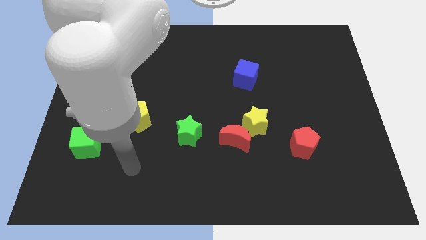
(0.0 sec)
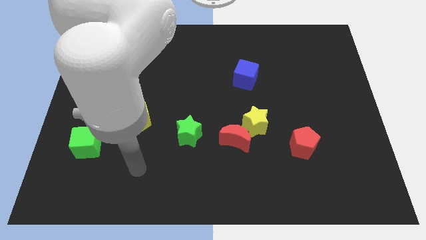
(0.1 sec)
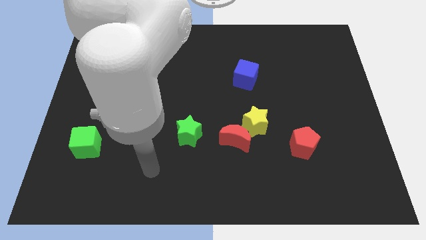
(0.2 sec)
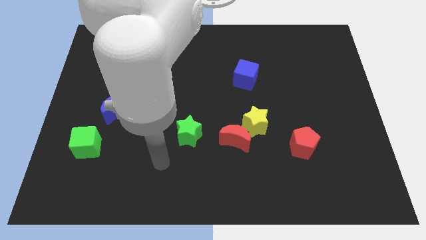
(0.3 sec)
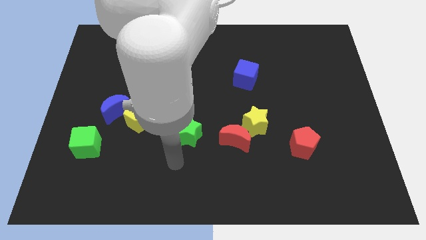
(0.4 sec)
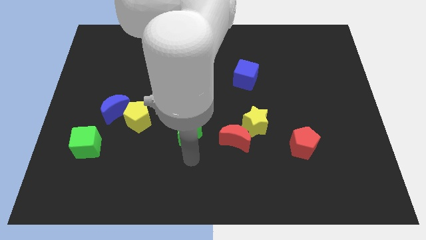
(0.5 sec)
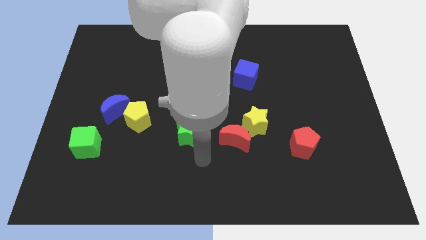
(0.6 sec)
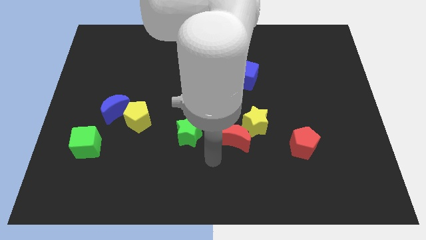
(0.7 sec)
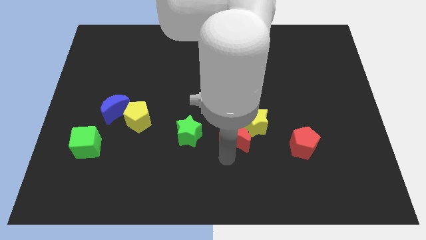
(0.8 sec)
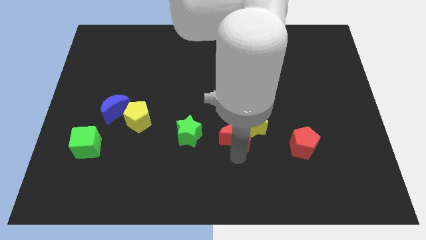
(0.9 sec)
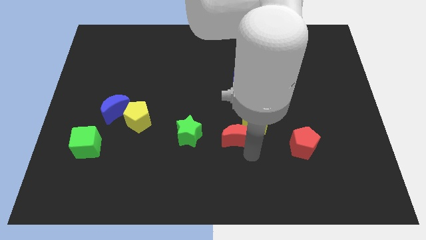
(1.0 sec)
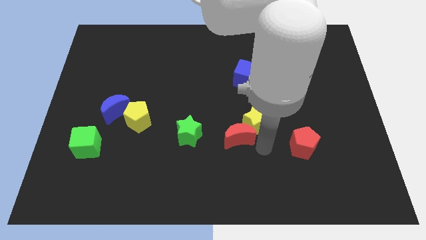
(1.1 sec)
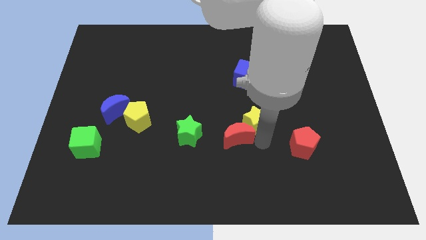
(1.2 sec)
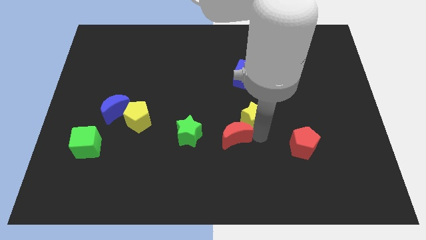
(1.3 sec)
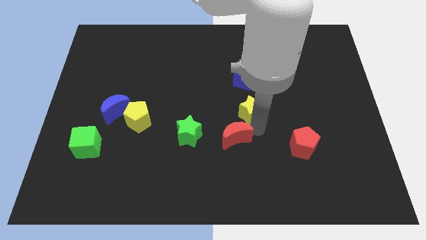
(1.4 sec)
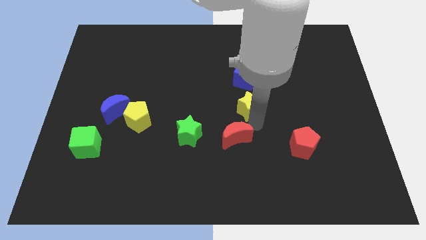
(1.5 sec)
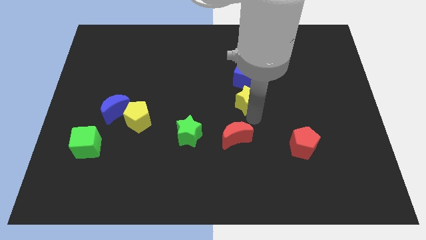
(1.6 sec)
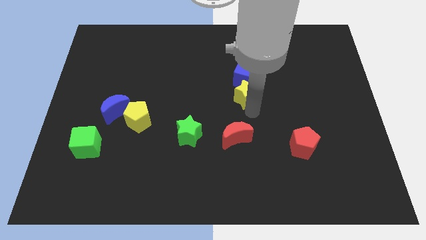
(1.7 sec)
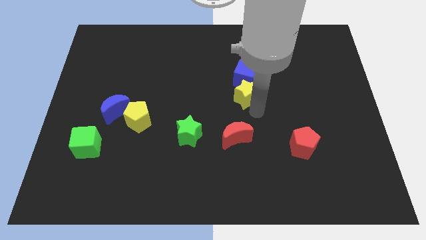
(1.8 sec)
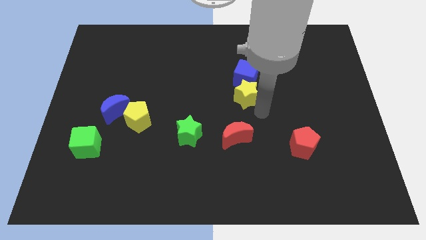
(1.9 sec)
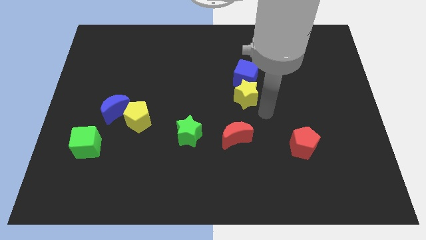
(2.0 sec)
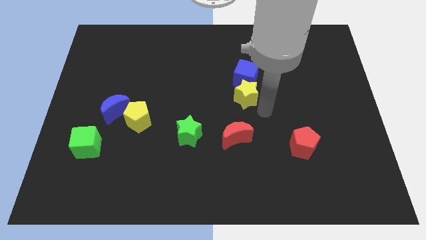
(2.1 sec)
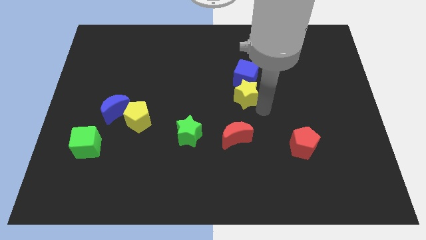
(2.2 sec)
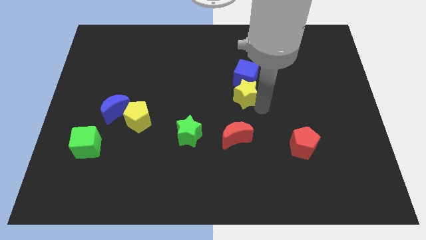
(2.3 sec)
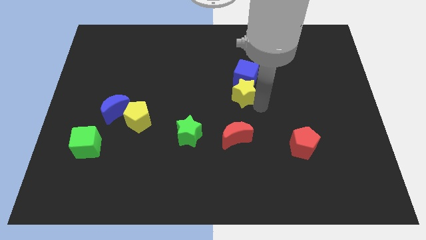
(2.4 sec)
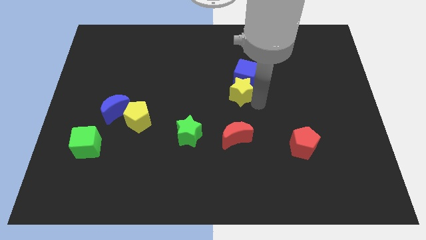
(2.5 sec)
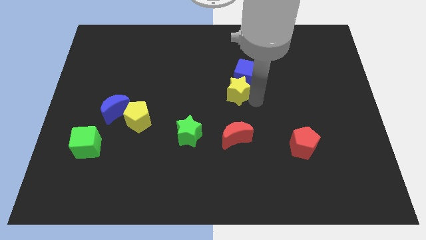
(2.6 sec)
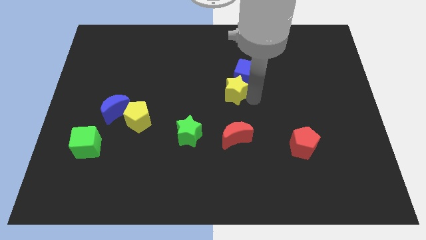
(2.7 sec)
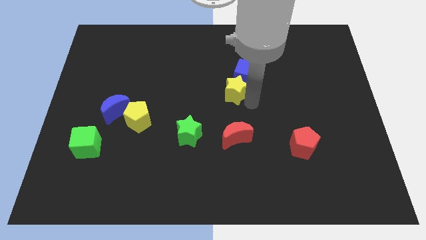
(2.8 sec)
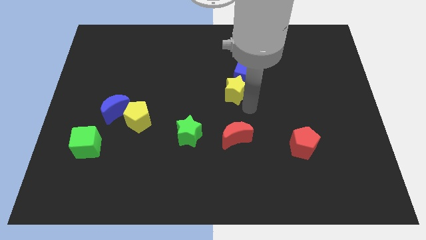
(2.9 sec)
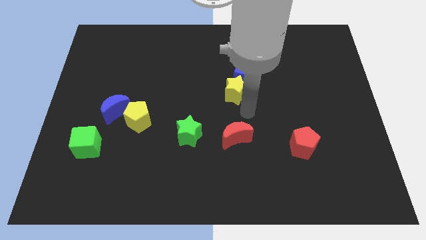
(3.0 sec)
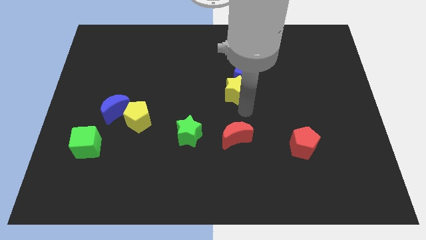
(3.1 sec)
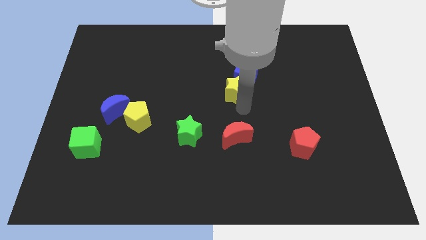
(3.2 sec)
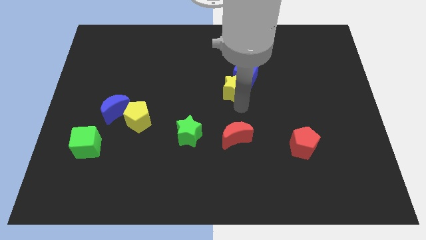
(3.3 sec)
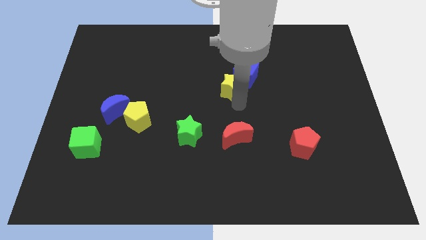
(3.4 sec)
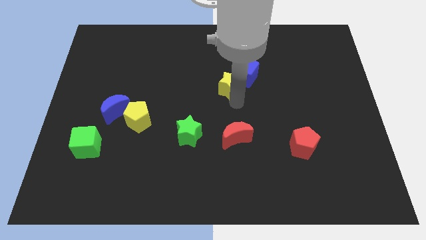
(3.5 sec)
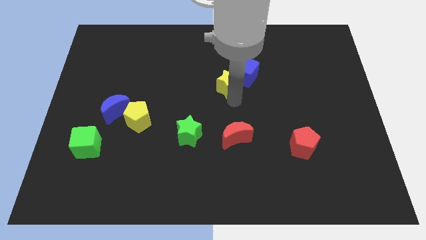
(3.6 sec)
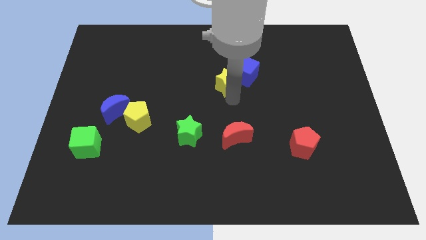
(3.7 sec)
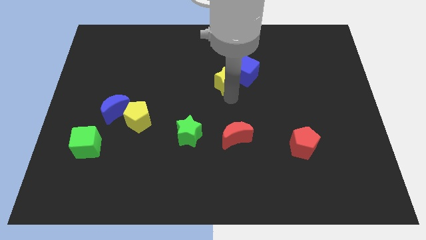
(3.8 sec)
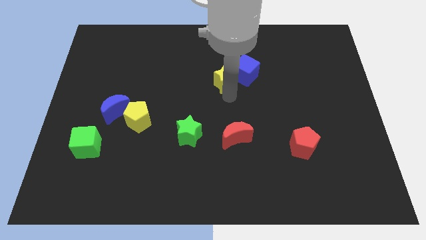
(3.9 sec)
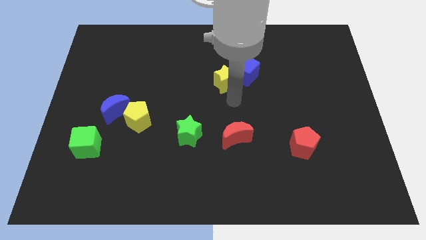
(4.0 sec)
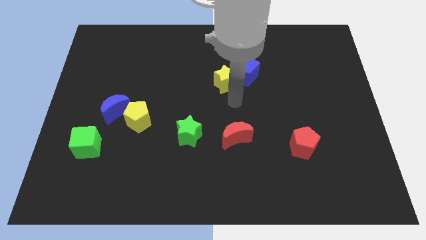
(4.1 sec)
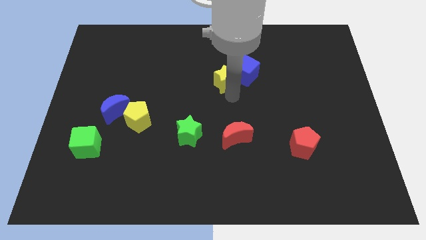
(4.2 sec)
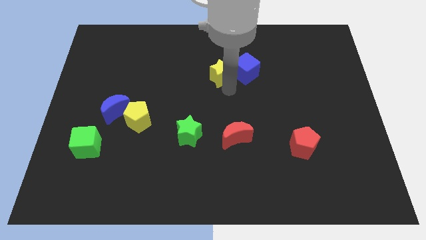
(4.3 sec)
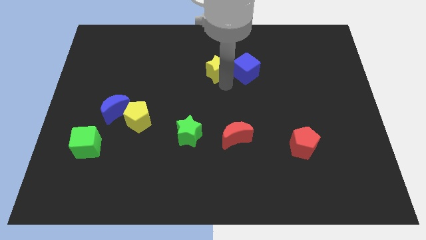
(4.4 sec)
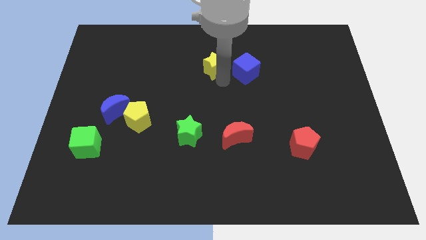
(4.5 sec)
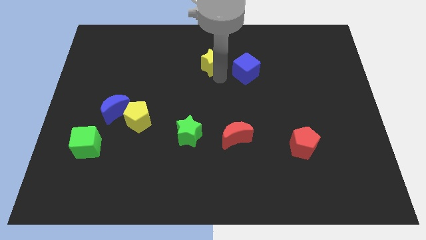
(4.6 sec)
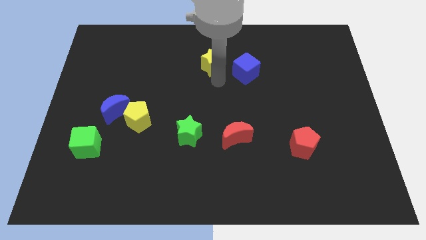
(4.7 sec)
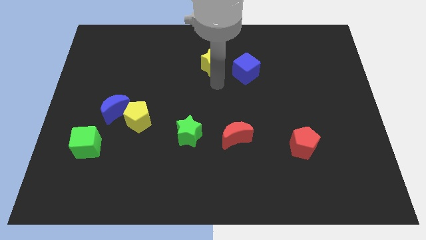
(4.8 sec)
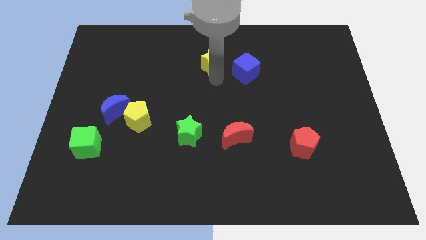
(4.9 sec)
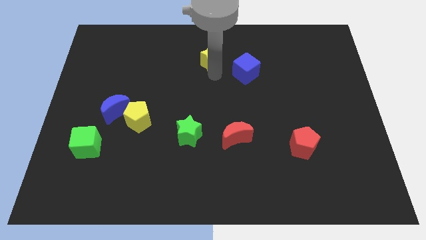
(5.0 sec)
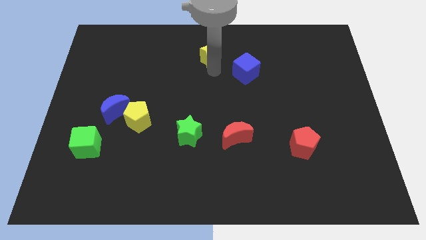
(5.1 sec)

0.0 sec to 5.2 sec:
move the yellow star to the top side

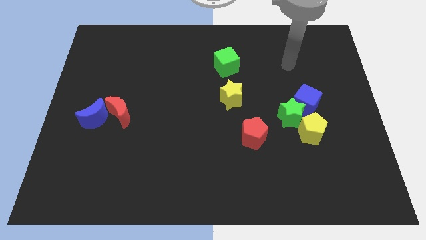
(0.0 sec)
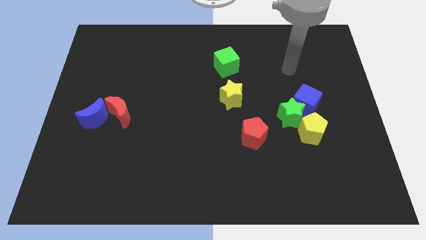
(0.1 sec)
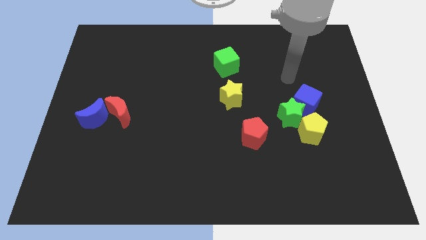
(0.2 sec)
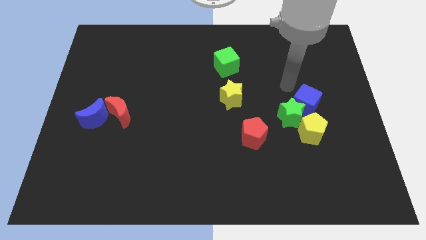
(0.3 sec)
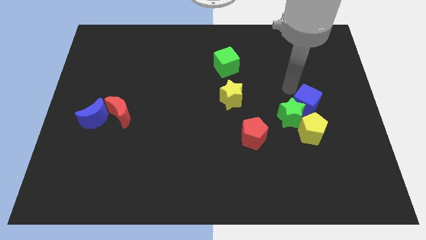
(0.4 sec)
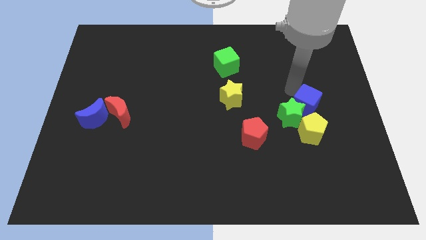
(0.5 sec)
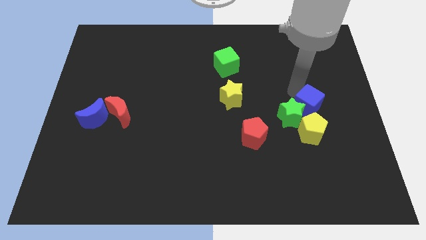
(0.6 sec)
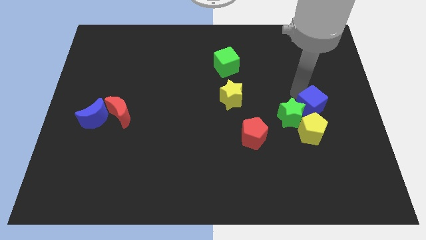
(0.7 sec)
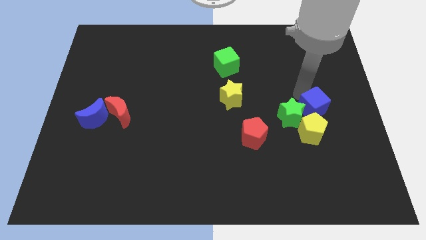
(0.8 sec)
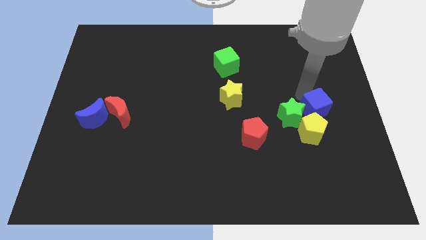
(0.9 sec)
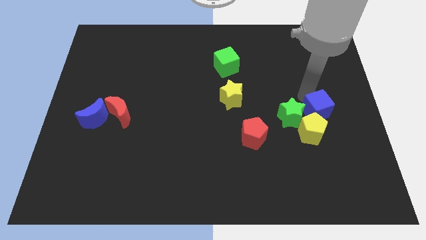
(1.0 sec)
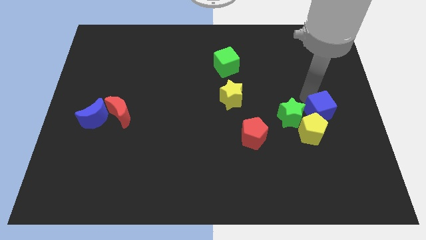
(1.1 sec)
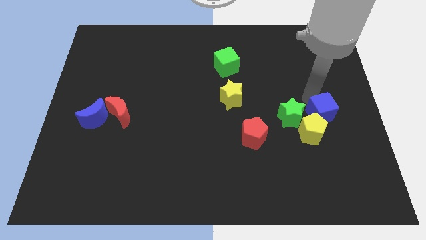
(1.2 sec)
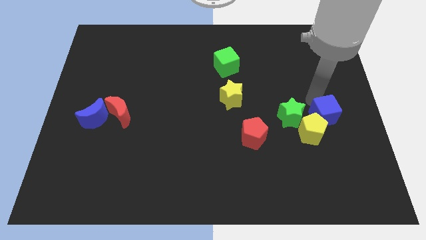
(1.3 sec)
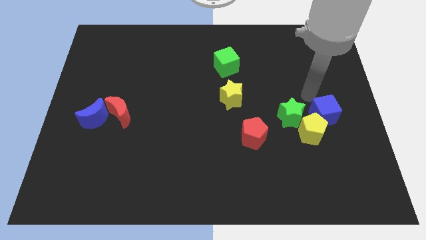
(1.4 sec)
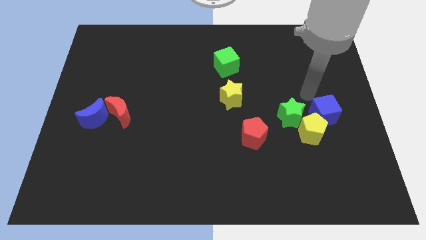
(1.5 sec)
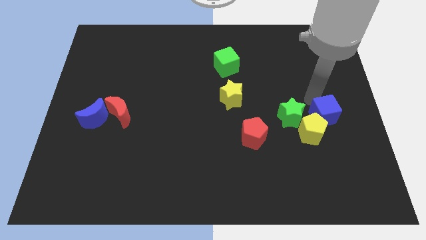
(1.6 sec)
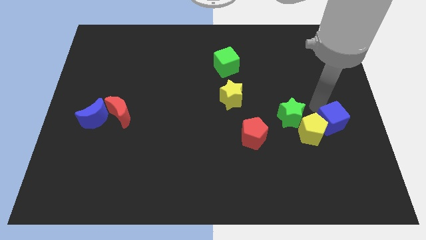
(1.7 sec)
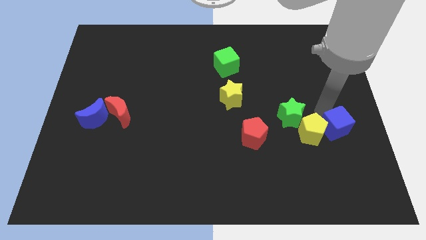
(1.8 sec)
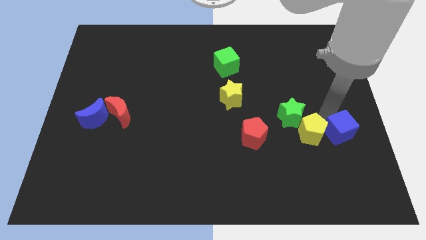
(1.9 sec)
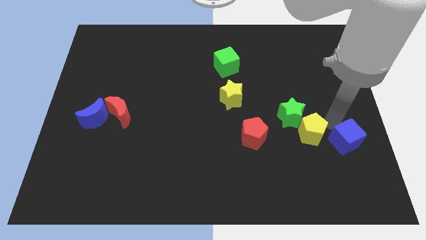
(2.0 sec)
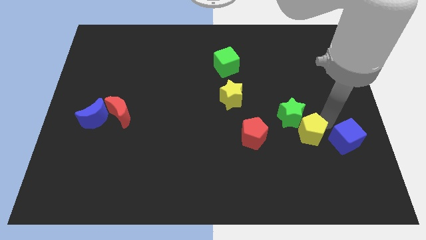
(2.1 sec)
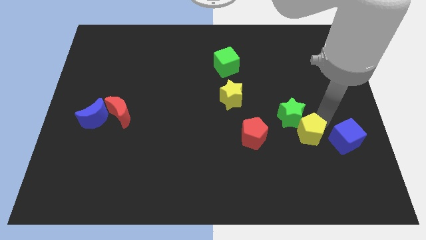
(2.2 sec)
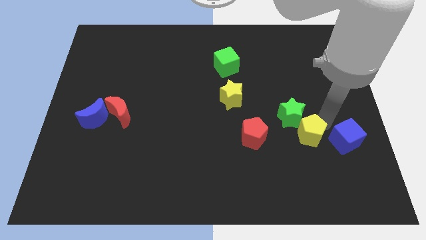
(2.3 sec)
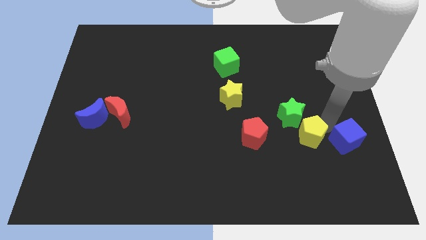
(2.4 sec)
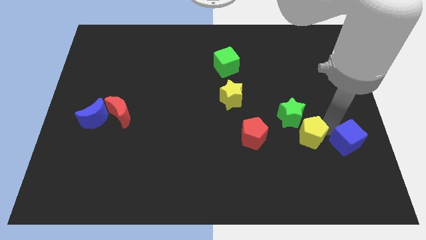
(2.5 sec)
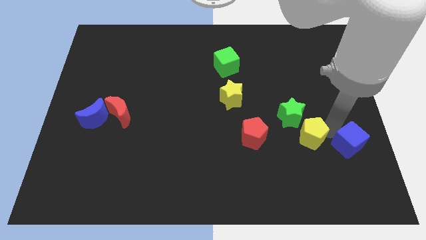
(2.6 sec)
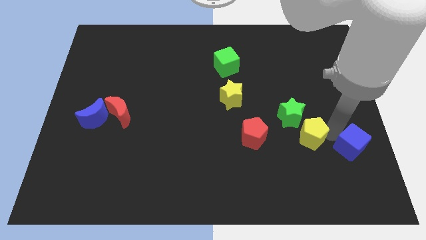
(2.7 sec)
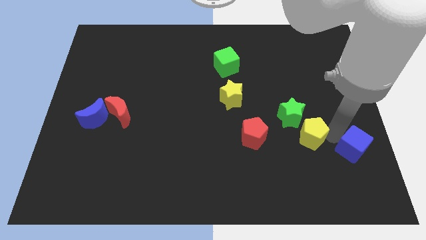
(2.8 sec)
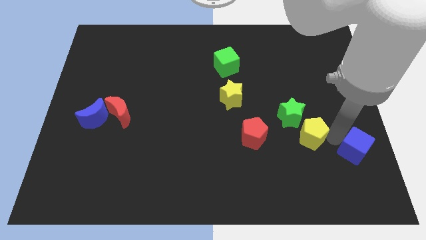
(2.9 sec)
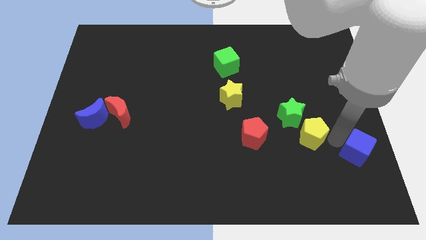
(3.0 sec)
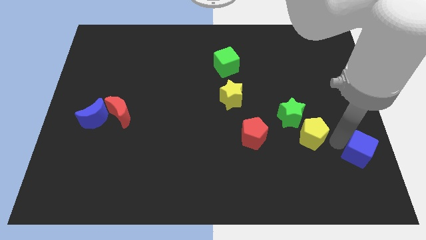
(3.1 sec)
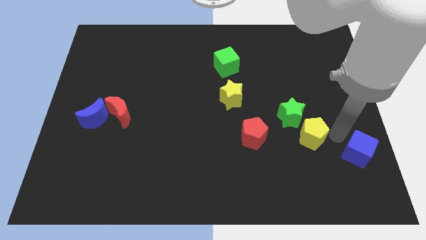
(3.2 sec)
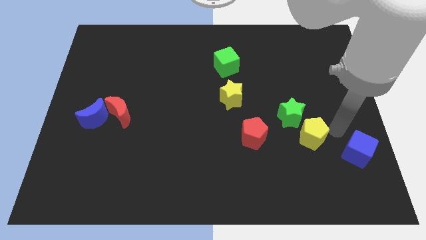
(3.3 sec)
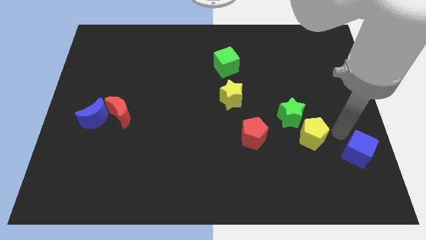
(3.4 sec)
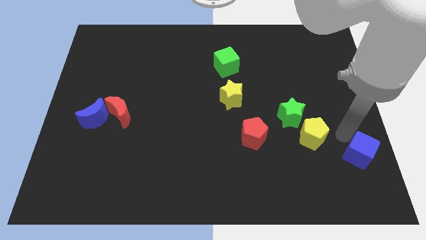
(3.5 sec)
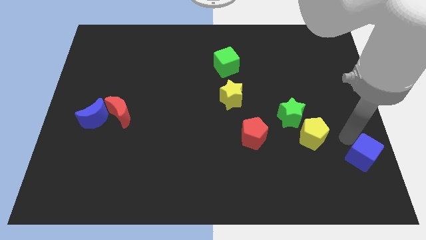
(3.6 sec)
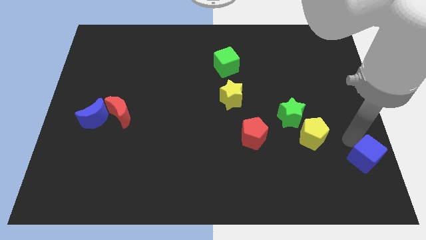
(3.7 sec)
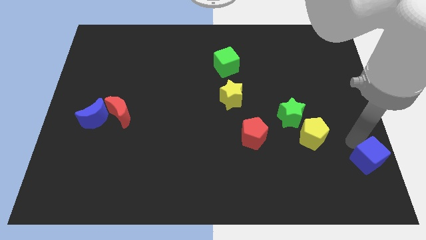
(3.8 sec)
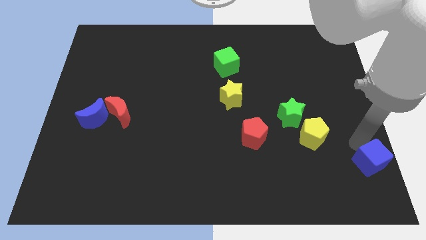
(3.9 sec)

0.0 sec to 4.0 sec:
put the blue cube to the bottom right
